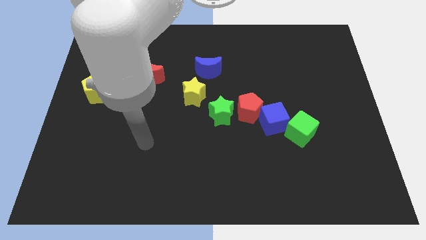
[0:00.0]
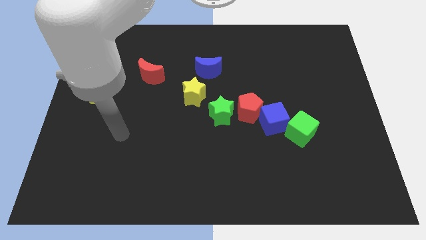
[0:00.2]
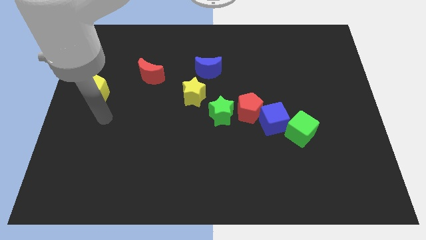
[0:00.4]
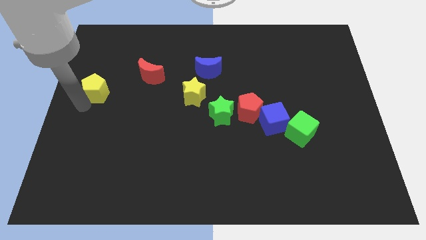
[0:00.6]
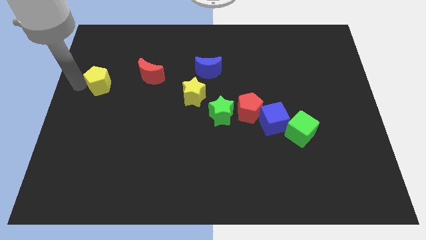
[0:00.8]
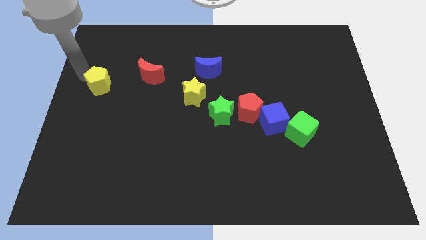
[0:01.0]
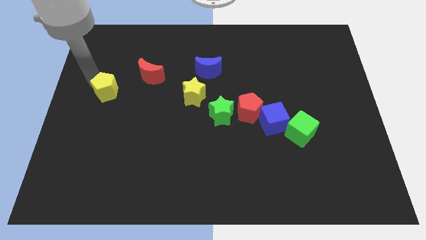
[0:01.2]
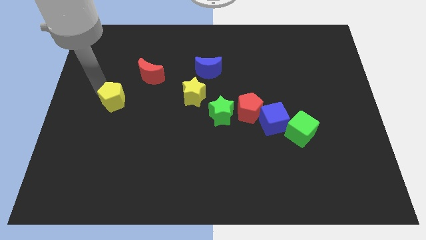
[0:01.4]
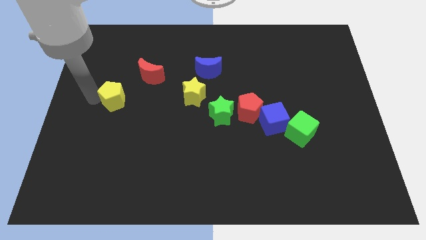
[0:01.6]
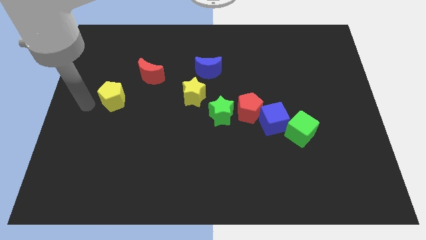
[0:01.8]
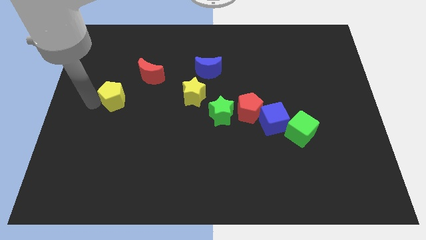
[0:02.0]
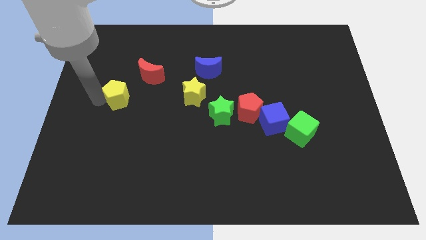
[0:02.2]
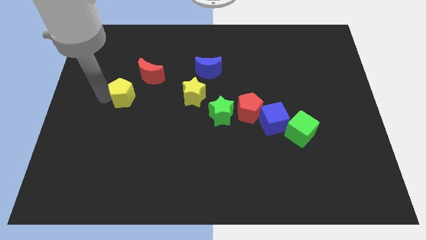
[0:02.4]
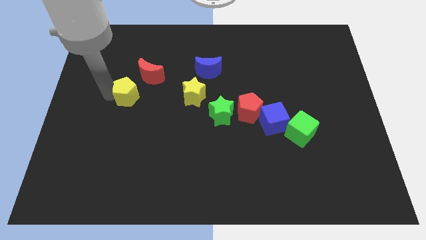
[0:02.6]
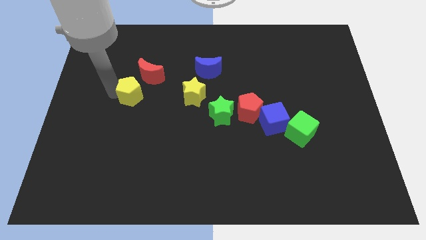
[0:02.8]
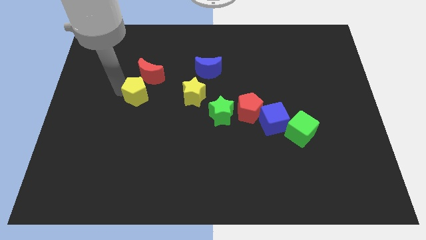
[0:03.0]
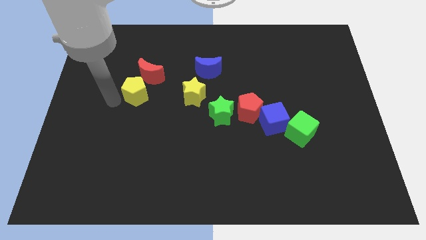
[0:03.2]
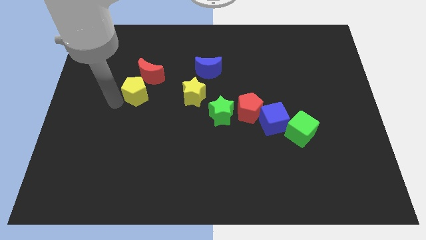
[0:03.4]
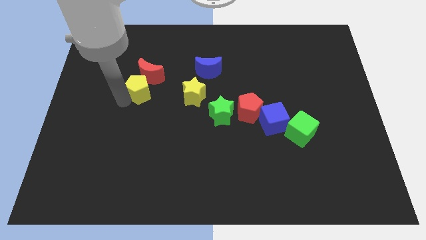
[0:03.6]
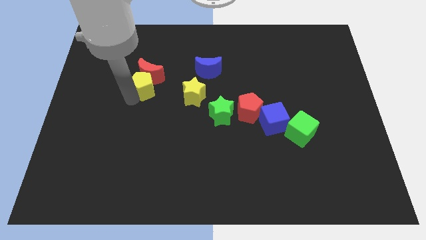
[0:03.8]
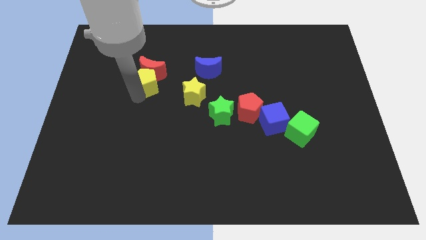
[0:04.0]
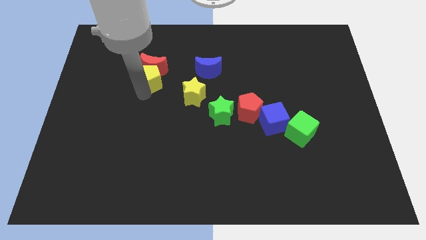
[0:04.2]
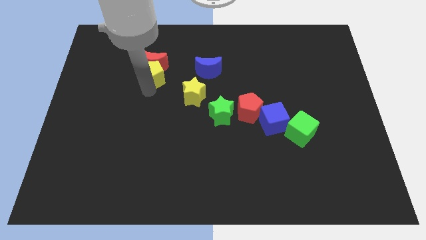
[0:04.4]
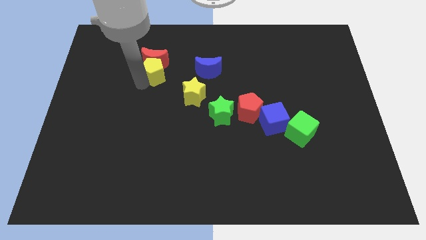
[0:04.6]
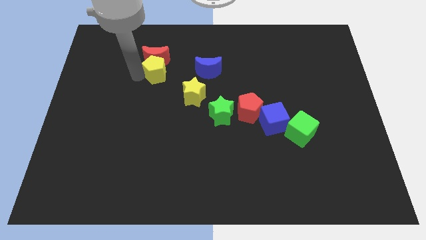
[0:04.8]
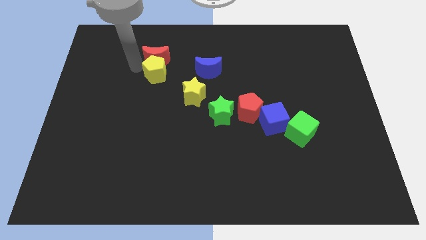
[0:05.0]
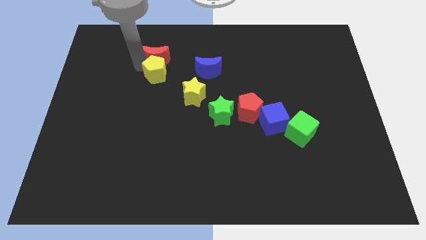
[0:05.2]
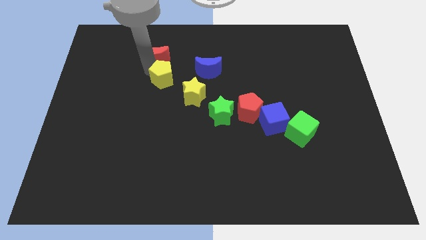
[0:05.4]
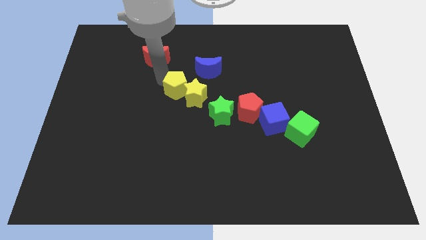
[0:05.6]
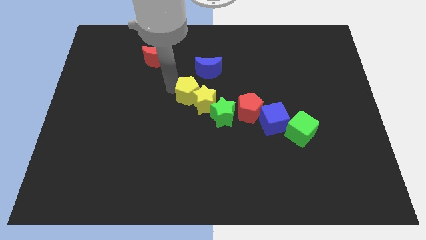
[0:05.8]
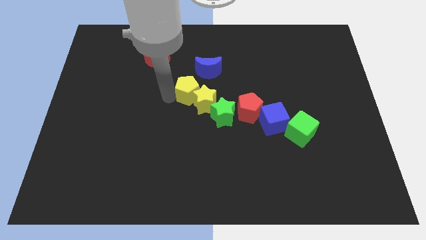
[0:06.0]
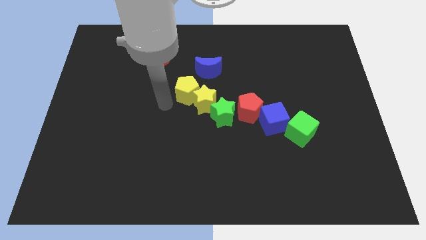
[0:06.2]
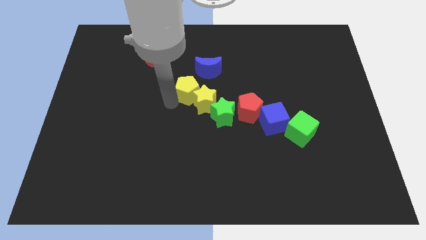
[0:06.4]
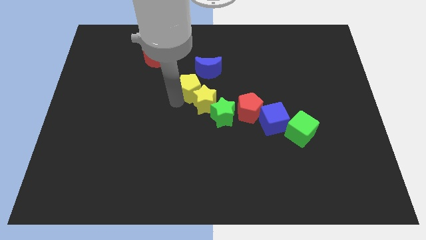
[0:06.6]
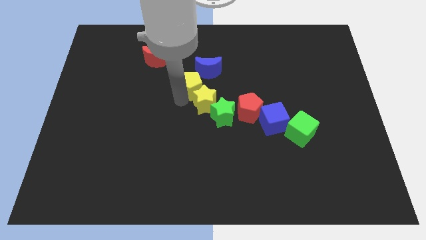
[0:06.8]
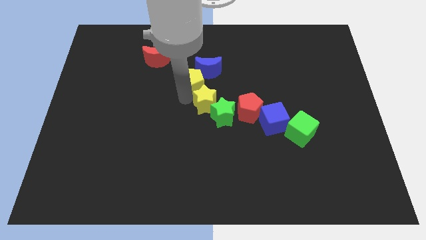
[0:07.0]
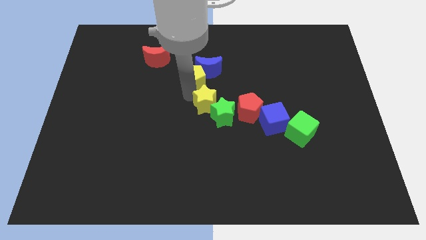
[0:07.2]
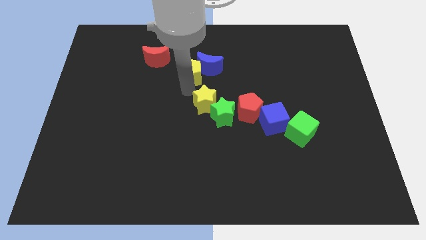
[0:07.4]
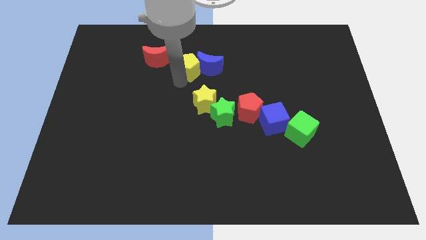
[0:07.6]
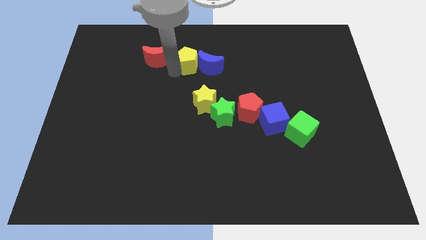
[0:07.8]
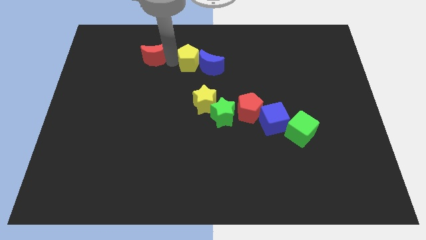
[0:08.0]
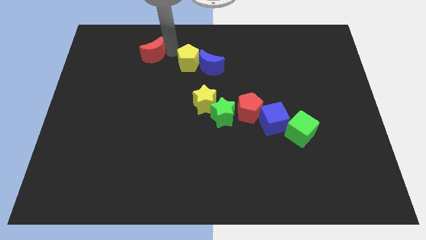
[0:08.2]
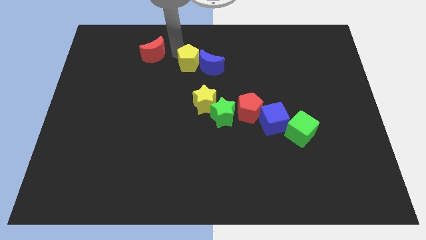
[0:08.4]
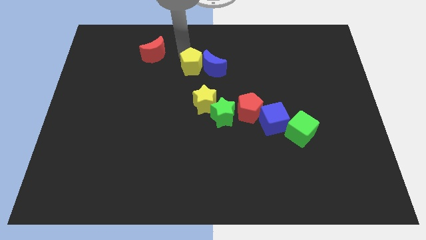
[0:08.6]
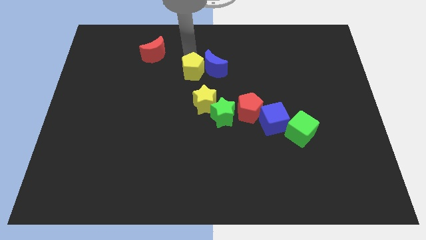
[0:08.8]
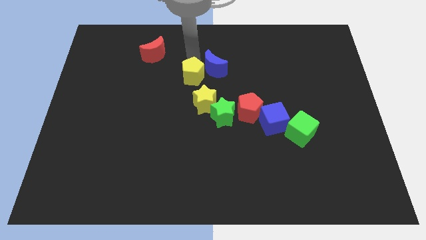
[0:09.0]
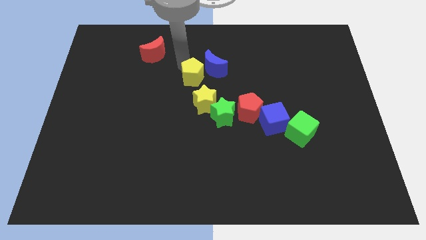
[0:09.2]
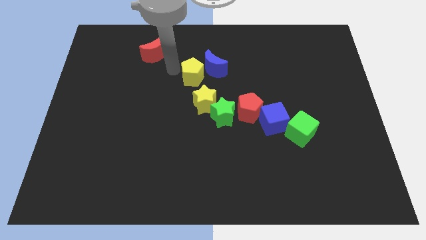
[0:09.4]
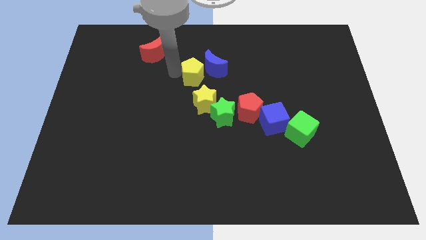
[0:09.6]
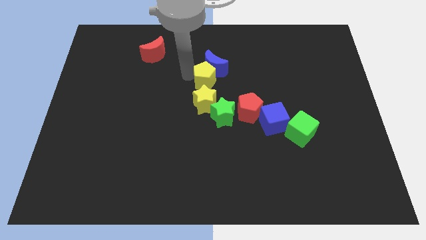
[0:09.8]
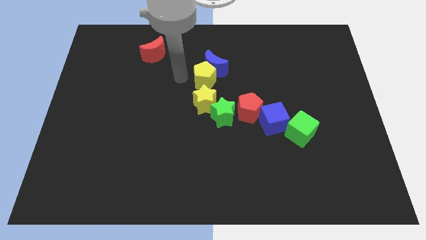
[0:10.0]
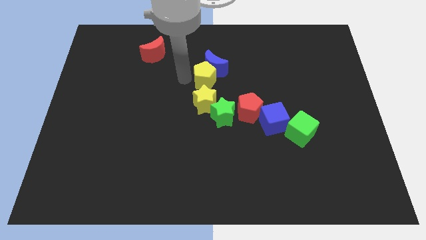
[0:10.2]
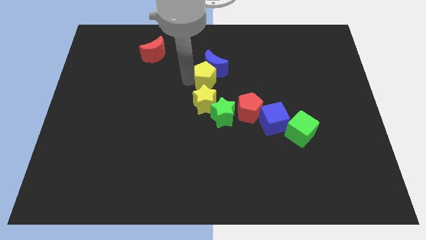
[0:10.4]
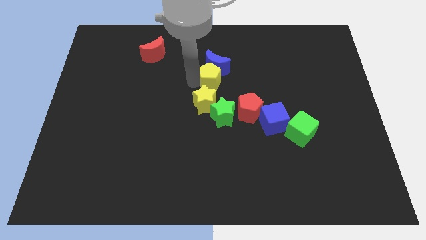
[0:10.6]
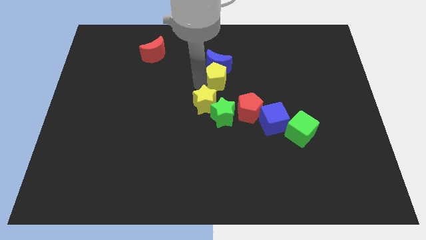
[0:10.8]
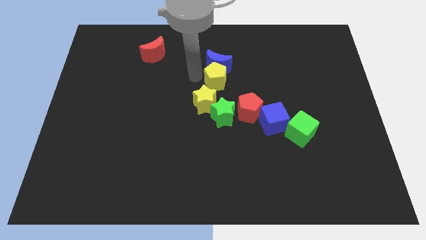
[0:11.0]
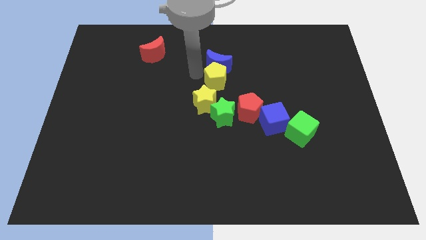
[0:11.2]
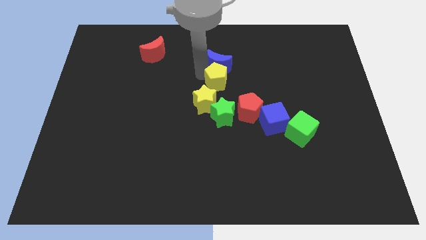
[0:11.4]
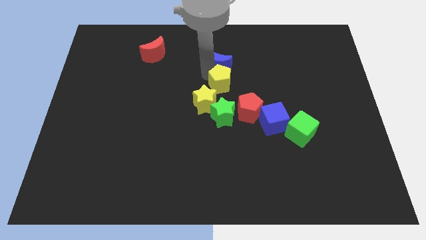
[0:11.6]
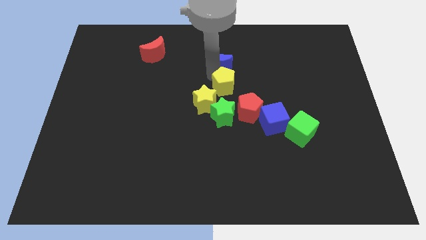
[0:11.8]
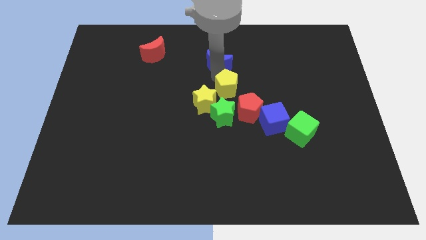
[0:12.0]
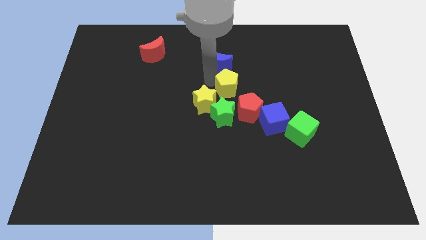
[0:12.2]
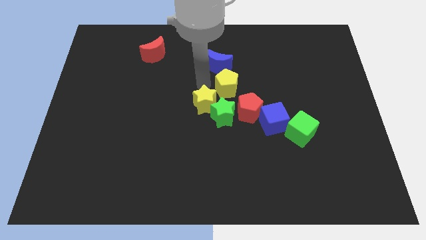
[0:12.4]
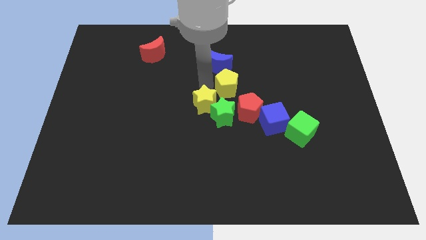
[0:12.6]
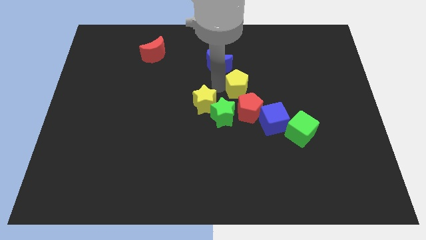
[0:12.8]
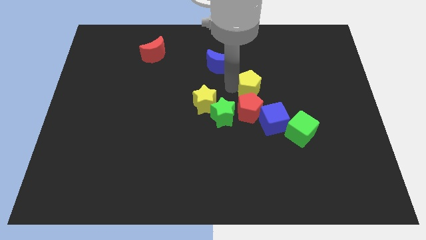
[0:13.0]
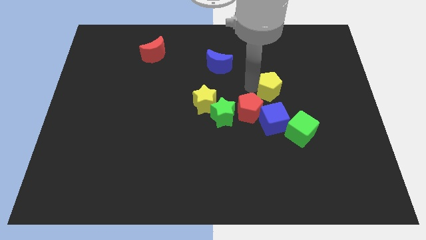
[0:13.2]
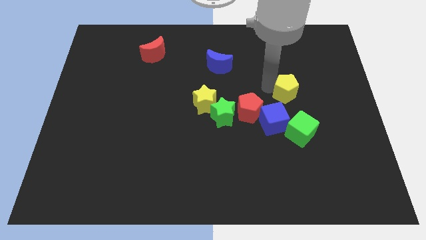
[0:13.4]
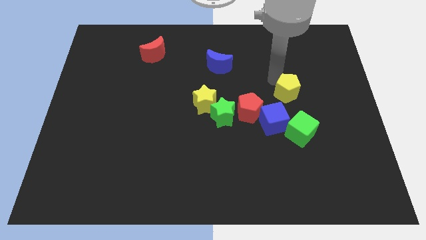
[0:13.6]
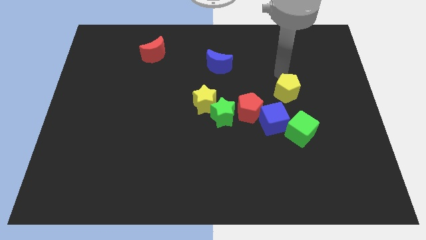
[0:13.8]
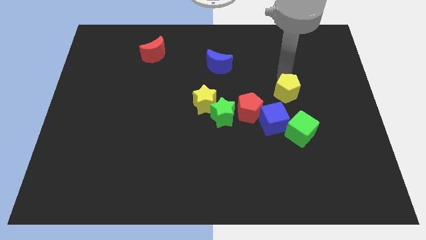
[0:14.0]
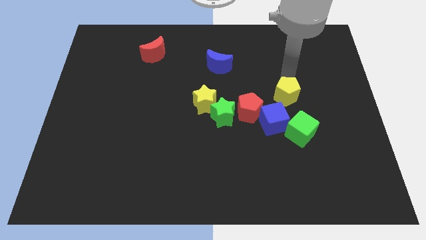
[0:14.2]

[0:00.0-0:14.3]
move the yellow pentagon right of the red pentagon
